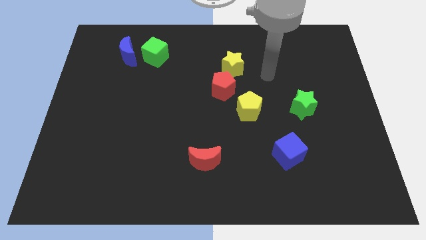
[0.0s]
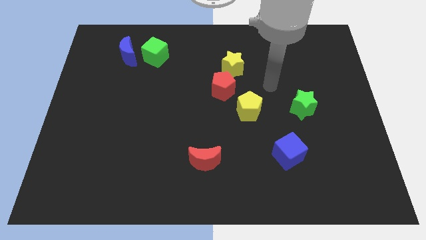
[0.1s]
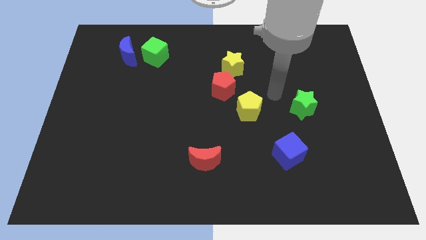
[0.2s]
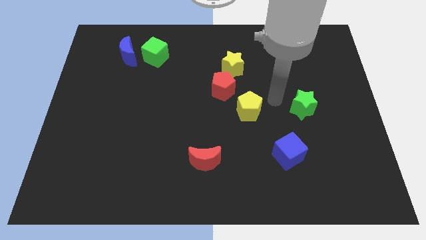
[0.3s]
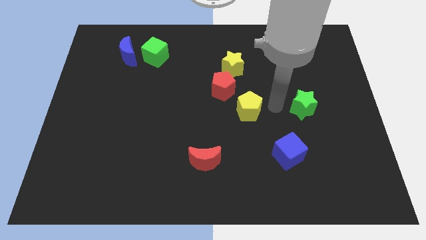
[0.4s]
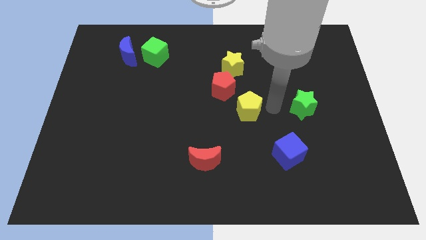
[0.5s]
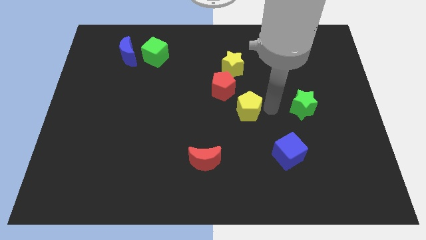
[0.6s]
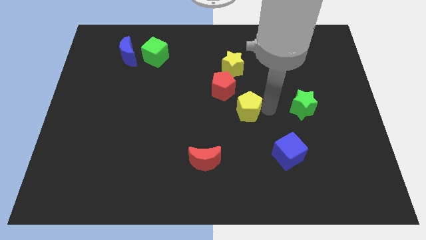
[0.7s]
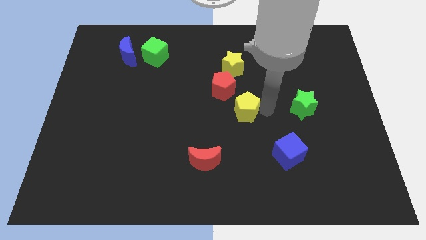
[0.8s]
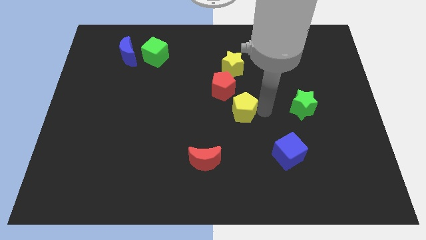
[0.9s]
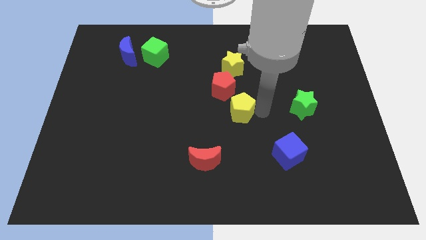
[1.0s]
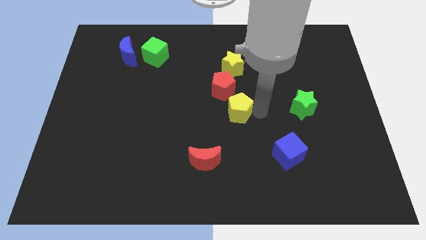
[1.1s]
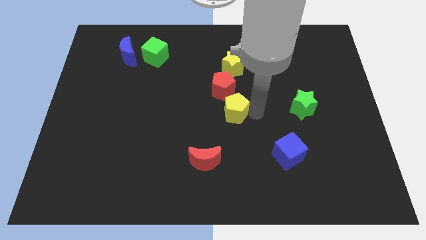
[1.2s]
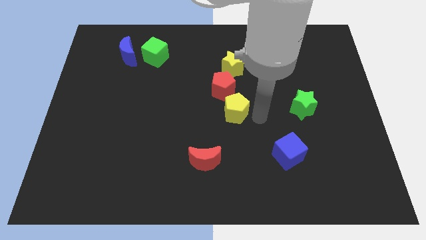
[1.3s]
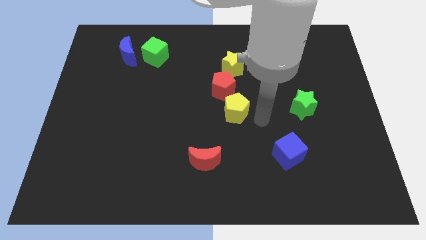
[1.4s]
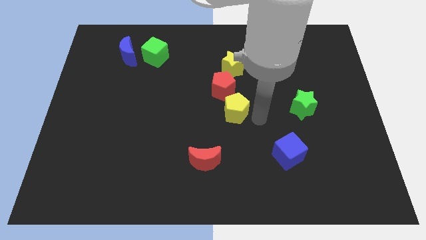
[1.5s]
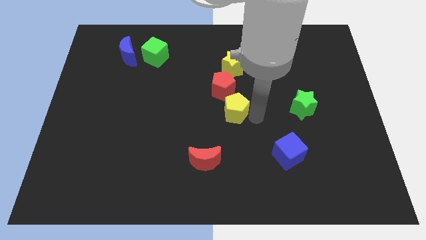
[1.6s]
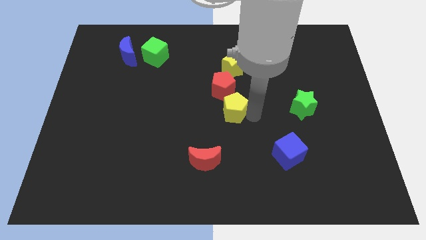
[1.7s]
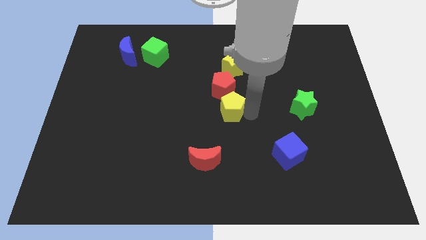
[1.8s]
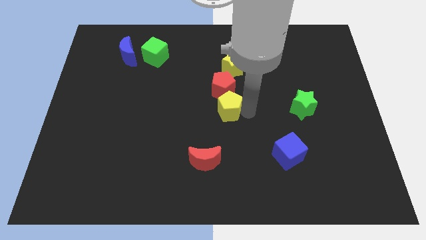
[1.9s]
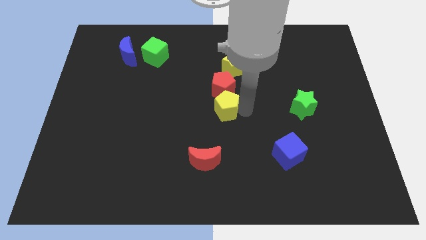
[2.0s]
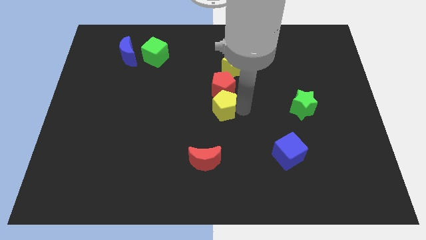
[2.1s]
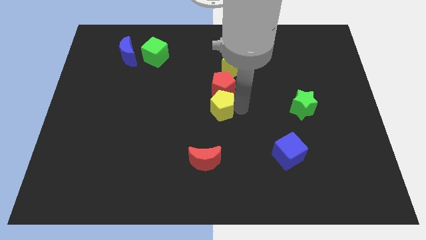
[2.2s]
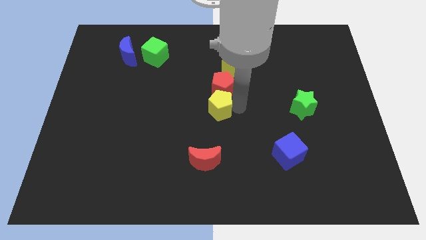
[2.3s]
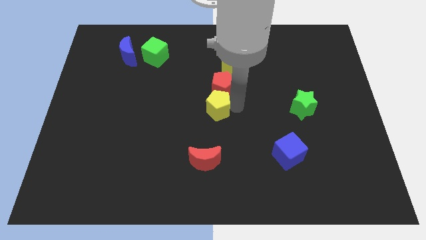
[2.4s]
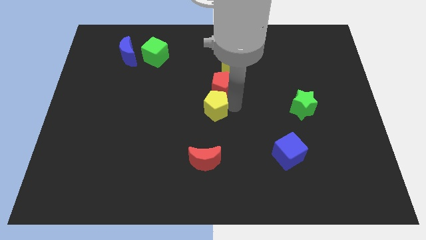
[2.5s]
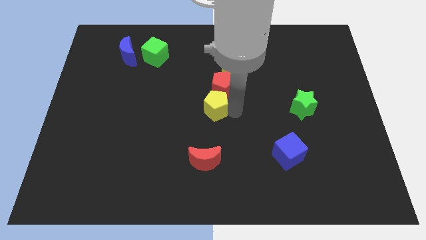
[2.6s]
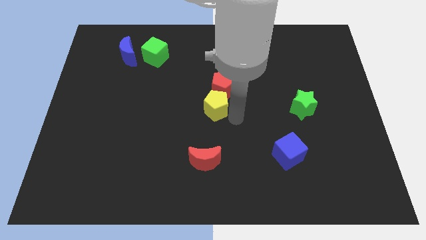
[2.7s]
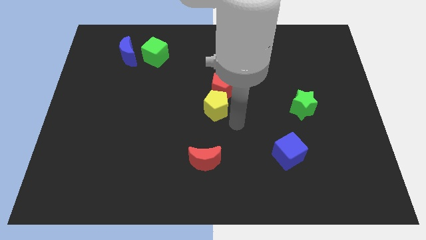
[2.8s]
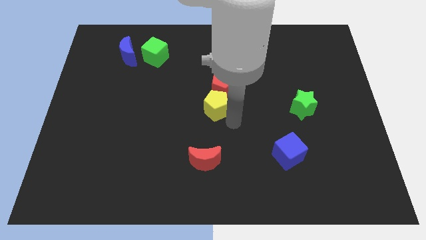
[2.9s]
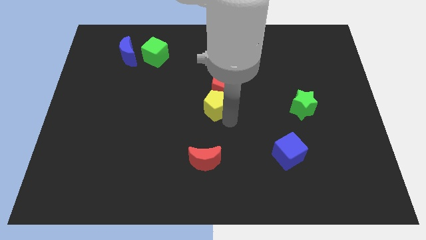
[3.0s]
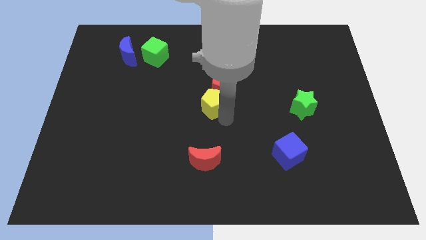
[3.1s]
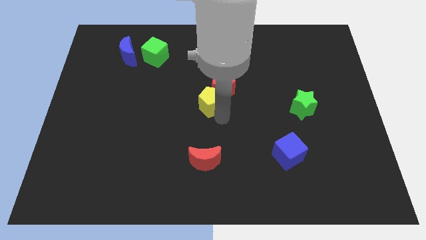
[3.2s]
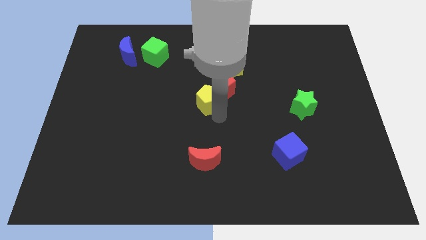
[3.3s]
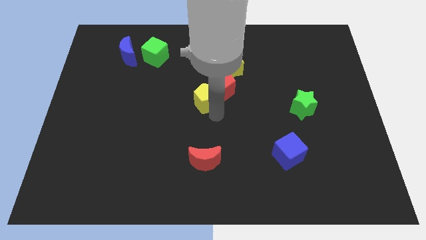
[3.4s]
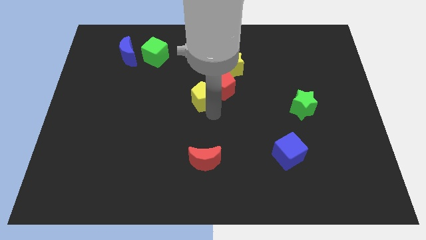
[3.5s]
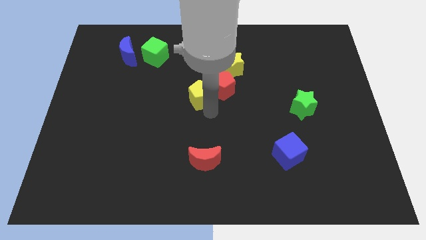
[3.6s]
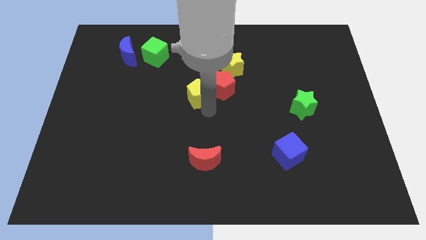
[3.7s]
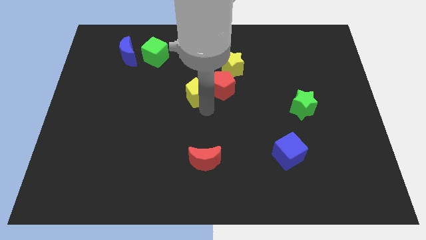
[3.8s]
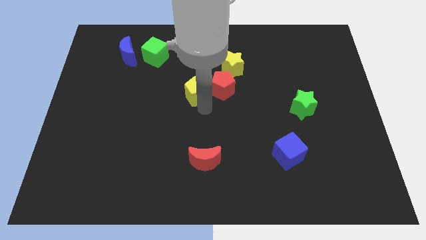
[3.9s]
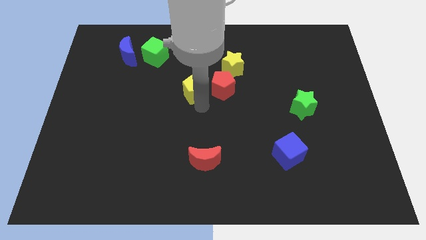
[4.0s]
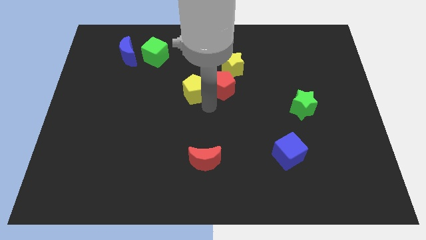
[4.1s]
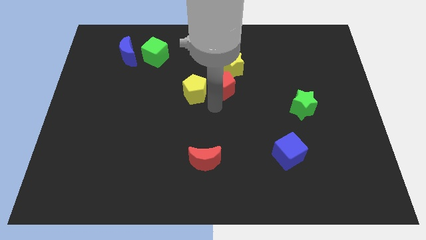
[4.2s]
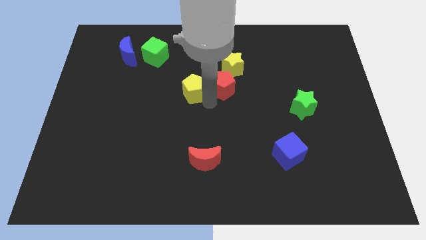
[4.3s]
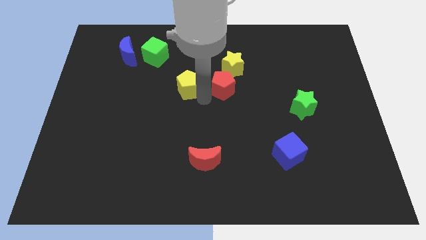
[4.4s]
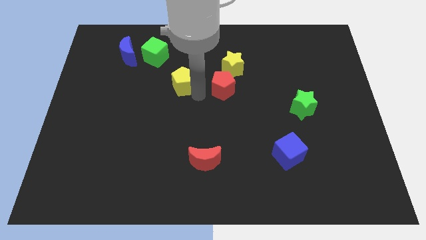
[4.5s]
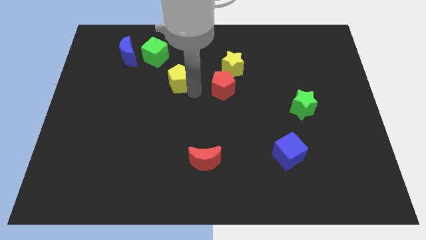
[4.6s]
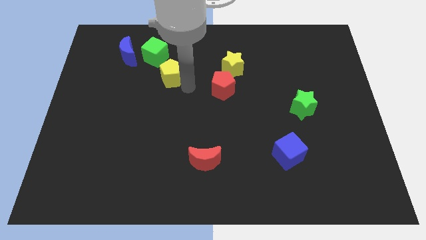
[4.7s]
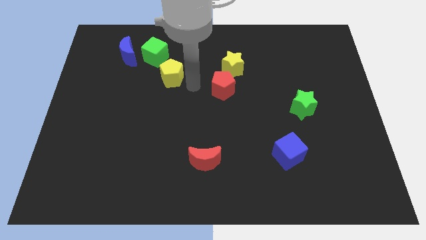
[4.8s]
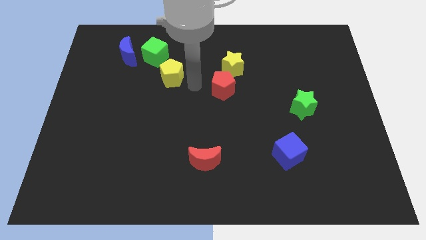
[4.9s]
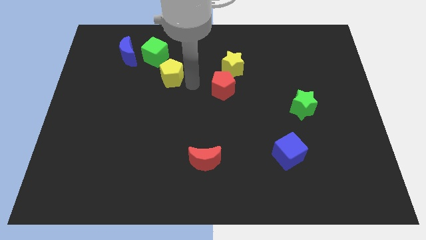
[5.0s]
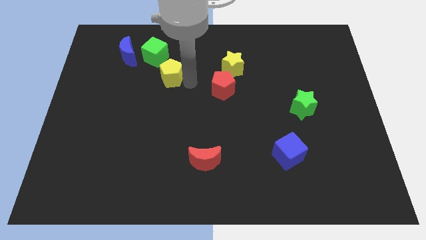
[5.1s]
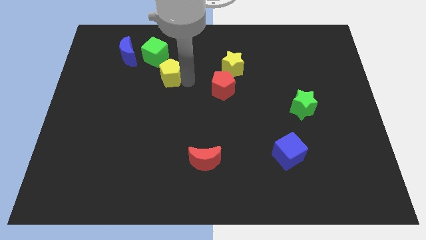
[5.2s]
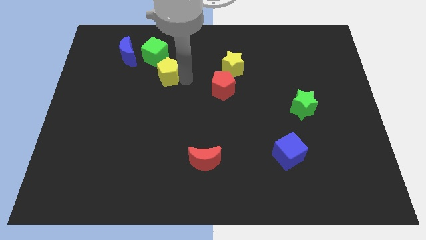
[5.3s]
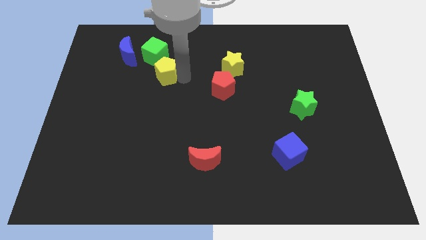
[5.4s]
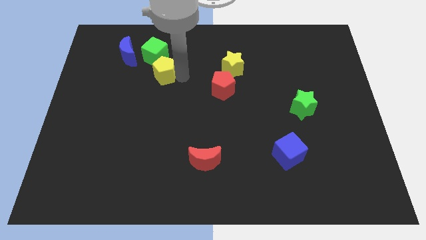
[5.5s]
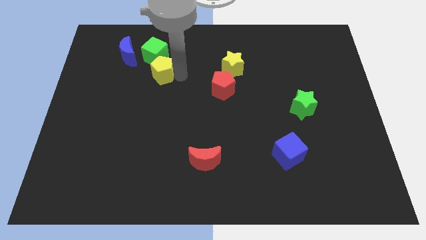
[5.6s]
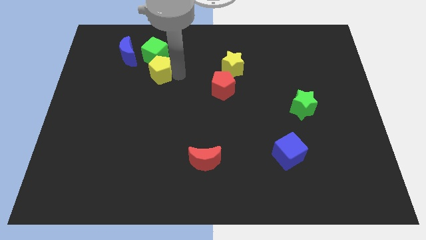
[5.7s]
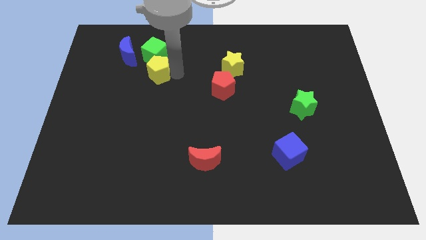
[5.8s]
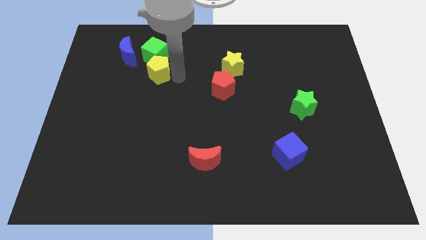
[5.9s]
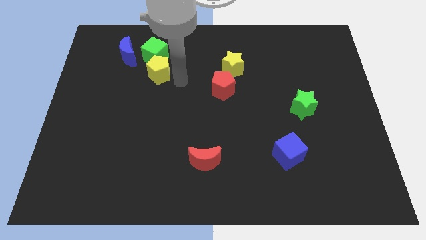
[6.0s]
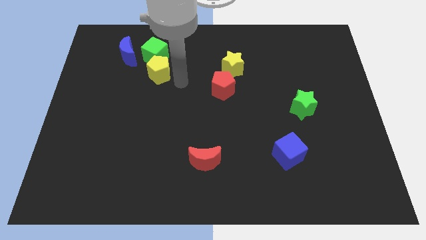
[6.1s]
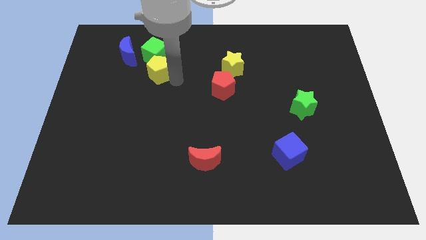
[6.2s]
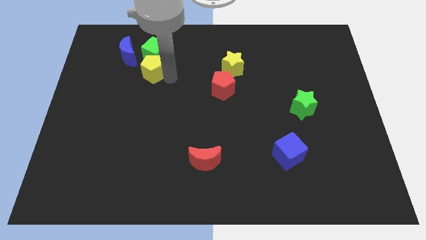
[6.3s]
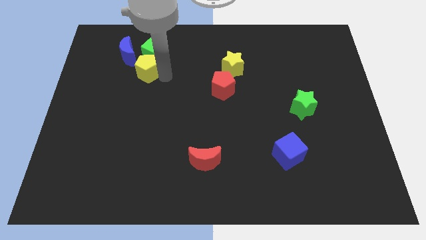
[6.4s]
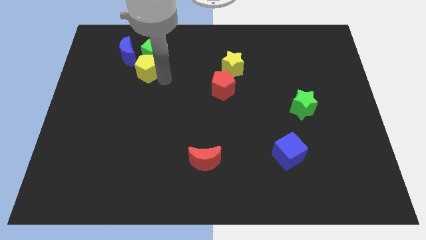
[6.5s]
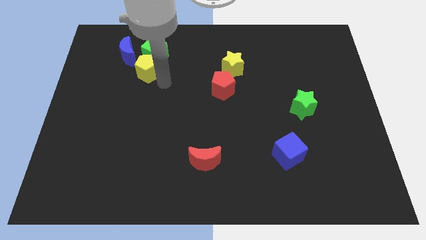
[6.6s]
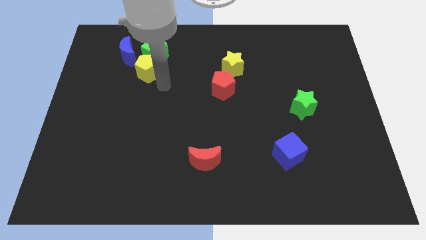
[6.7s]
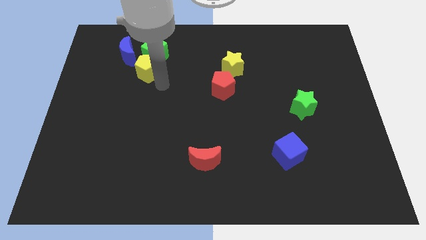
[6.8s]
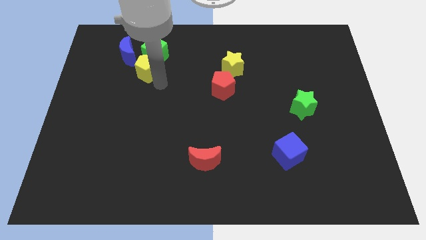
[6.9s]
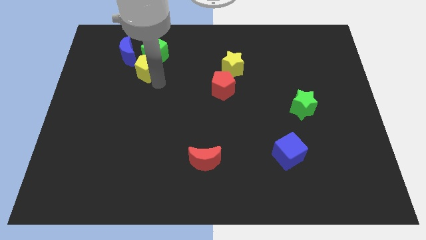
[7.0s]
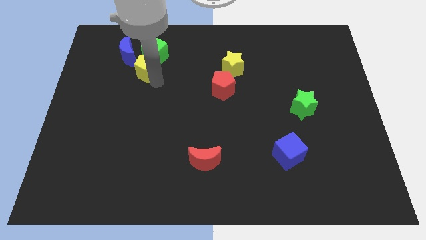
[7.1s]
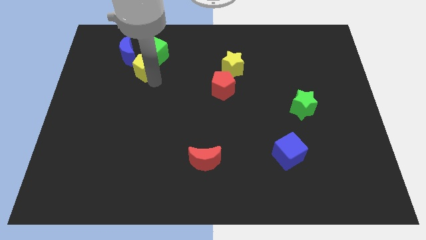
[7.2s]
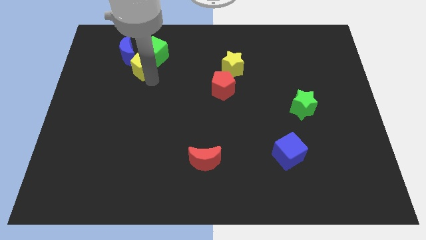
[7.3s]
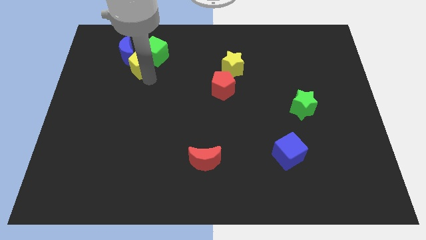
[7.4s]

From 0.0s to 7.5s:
move the yellow pentagon to the blue moon
